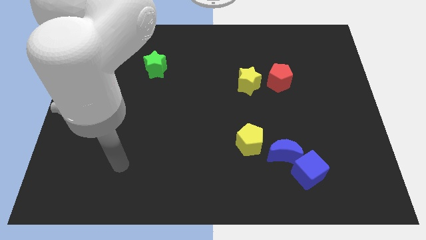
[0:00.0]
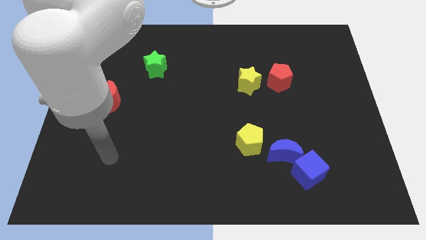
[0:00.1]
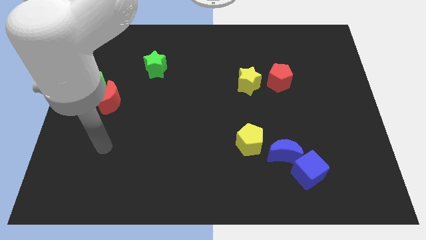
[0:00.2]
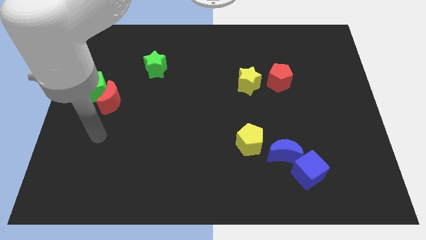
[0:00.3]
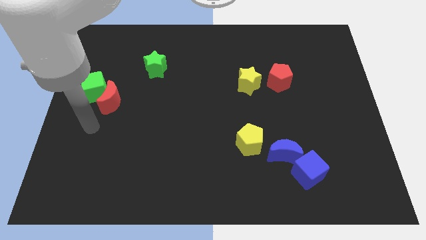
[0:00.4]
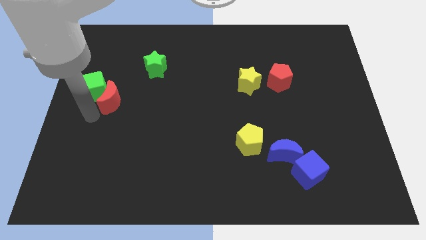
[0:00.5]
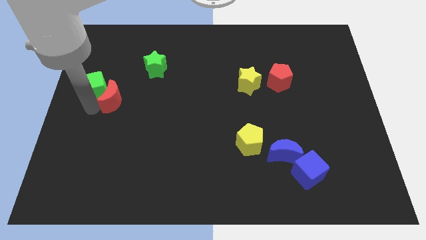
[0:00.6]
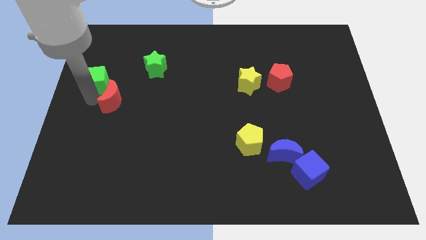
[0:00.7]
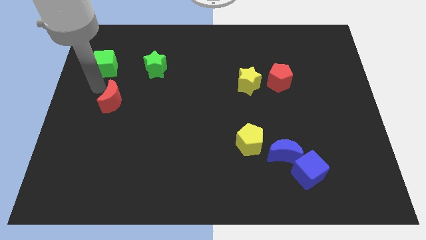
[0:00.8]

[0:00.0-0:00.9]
pull the red moon apart from the green cube

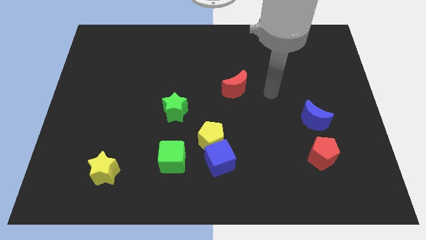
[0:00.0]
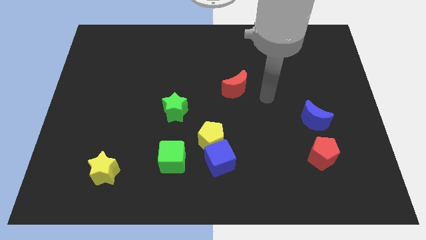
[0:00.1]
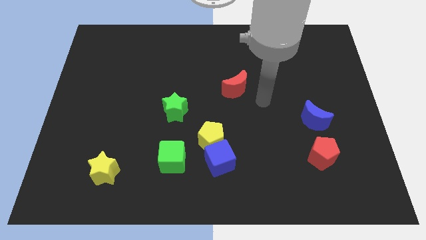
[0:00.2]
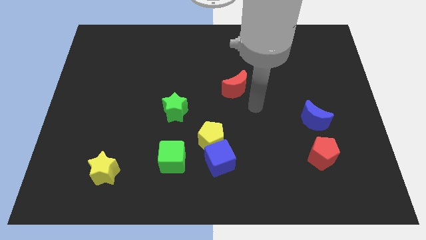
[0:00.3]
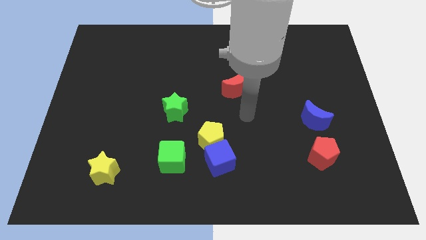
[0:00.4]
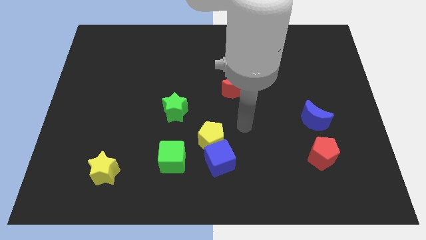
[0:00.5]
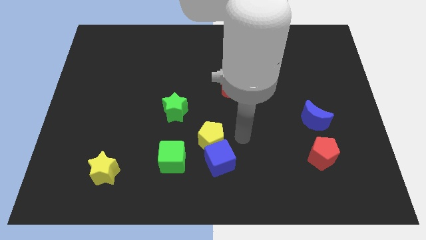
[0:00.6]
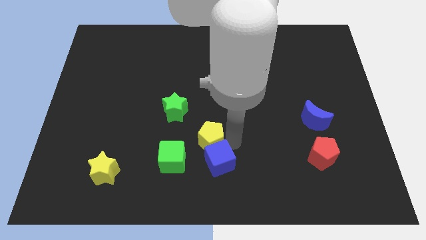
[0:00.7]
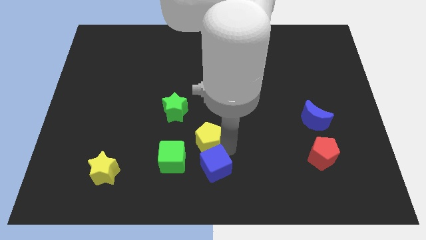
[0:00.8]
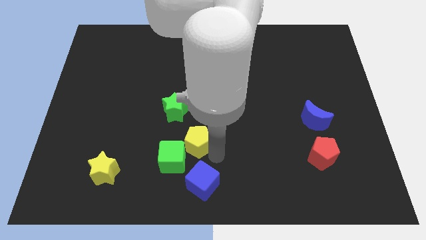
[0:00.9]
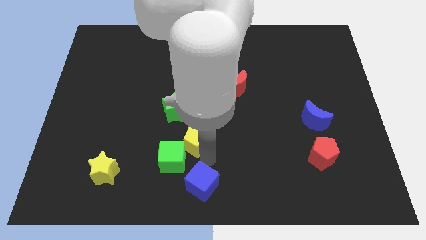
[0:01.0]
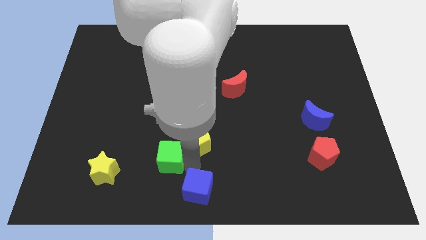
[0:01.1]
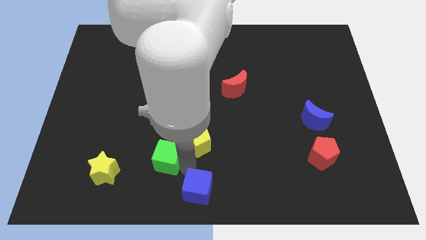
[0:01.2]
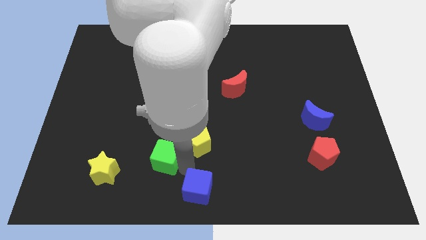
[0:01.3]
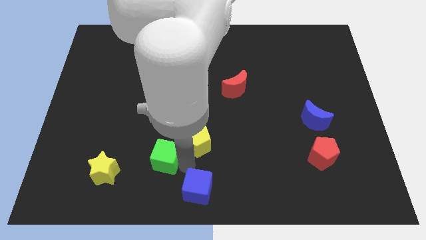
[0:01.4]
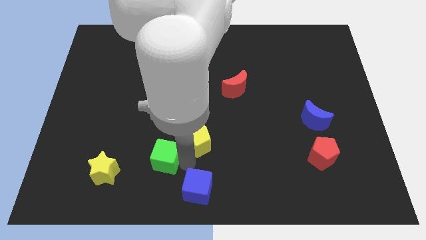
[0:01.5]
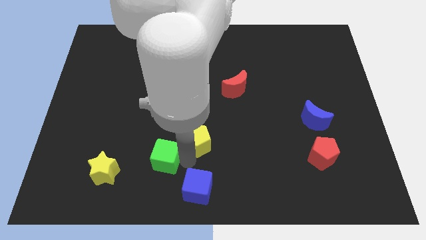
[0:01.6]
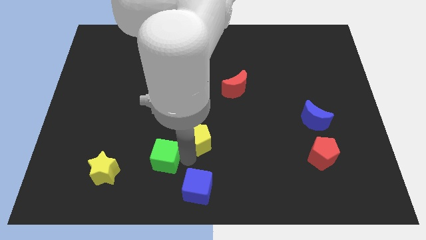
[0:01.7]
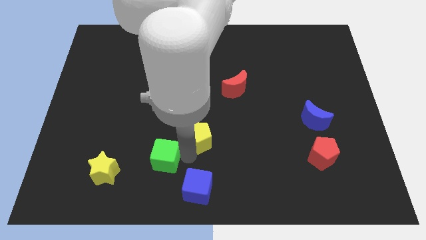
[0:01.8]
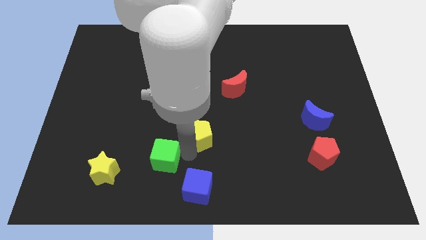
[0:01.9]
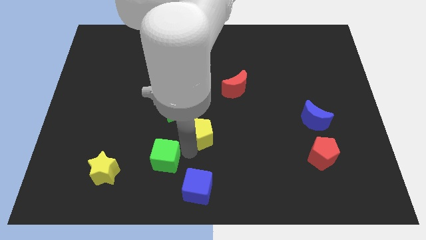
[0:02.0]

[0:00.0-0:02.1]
move the yellow pentagon away from the blue cube and green cube

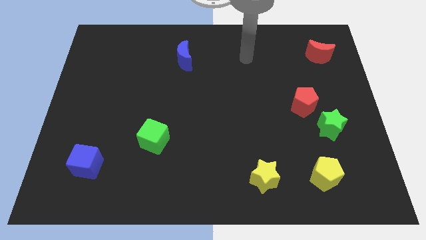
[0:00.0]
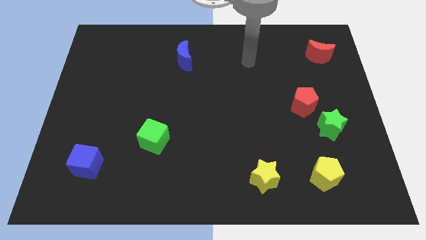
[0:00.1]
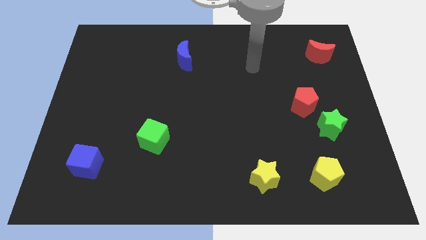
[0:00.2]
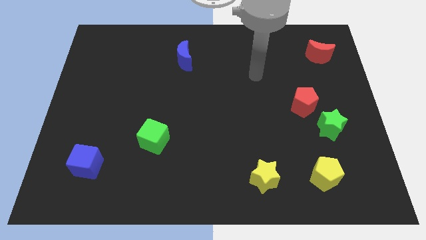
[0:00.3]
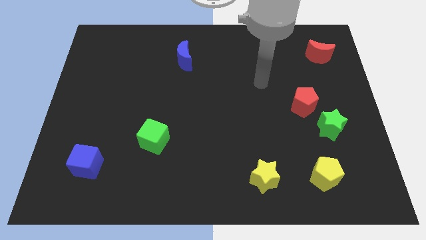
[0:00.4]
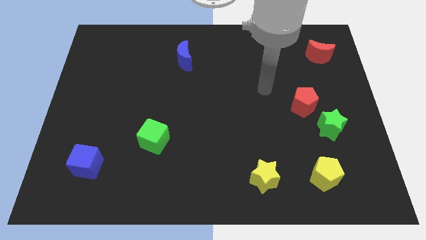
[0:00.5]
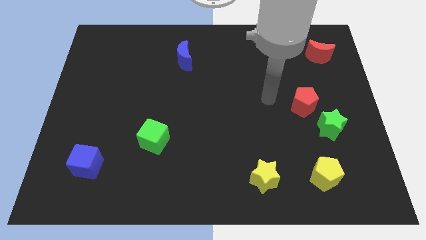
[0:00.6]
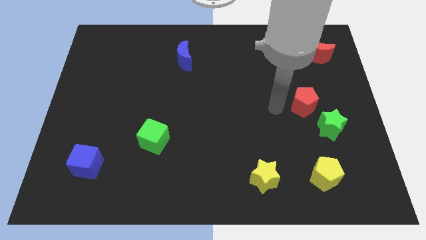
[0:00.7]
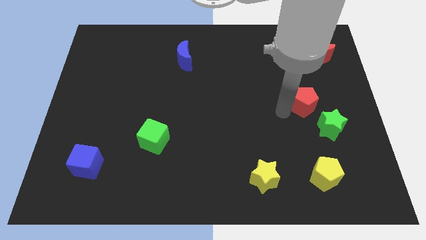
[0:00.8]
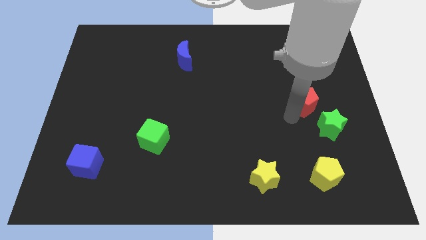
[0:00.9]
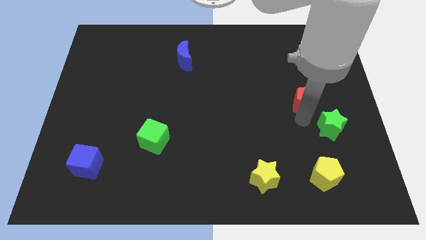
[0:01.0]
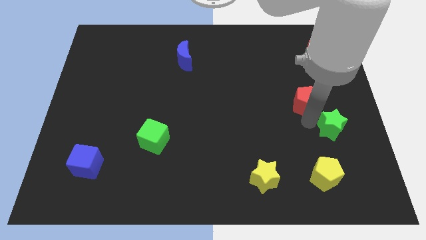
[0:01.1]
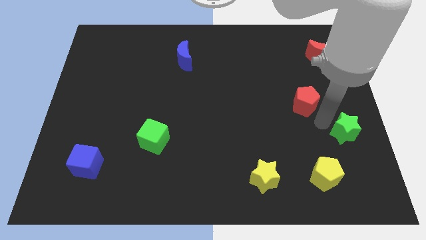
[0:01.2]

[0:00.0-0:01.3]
move the red pentagon away from the green star

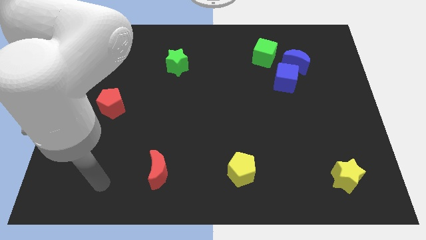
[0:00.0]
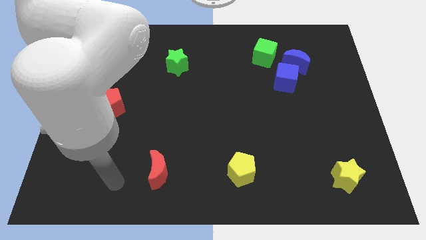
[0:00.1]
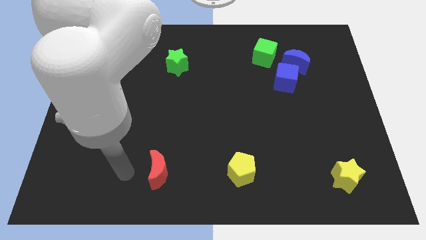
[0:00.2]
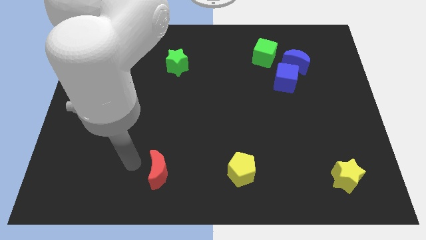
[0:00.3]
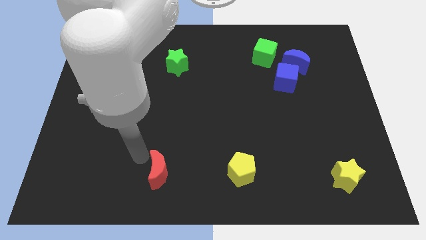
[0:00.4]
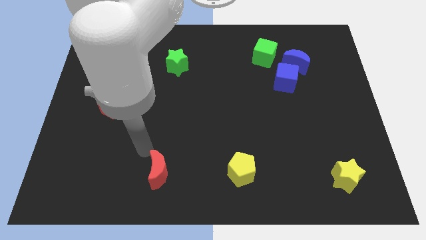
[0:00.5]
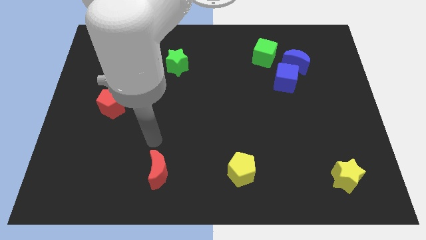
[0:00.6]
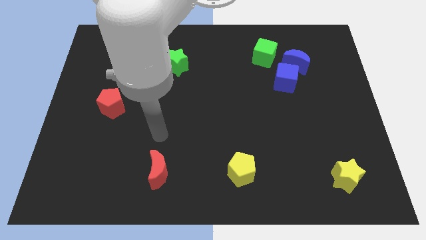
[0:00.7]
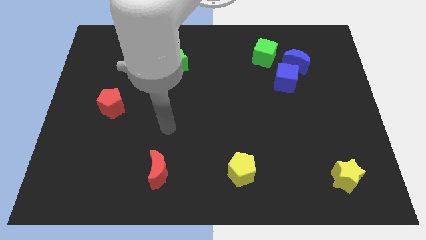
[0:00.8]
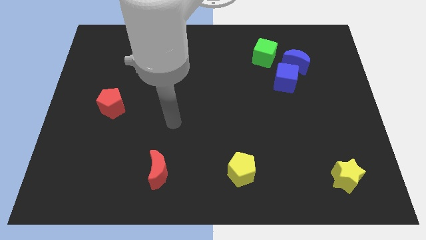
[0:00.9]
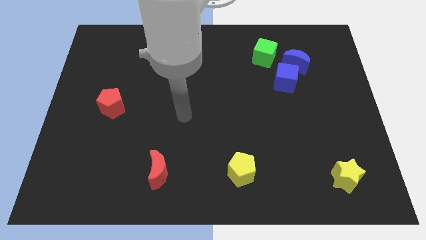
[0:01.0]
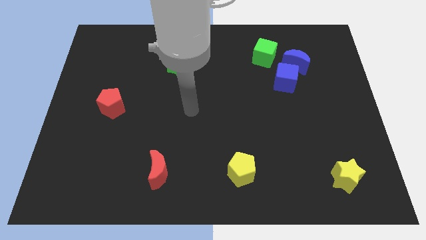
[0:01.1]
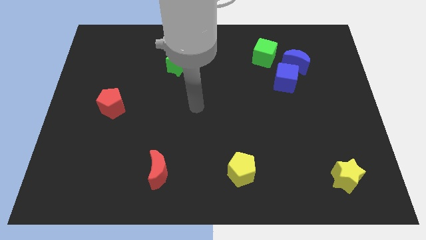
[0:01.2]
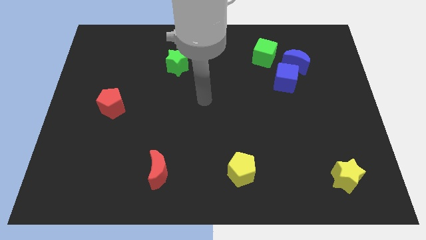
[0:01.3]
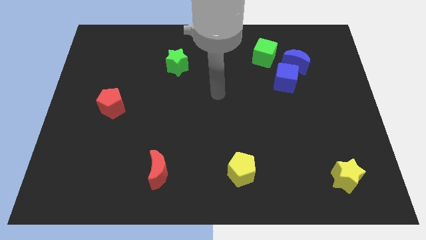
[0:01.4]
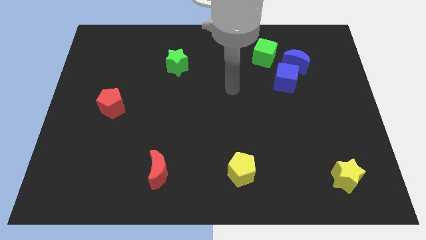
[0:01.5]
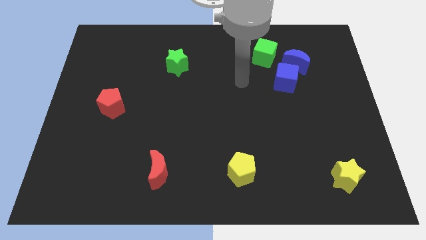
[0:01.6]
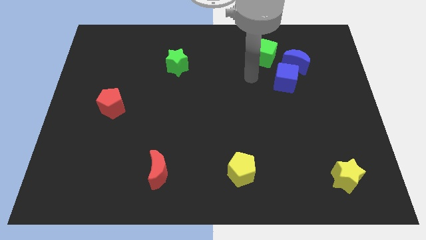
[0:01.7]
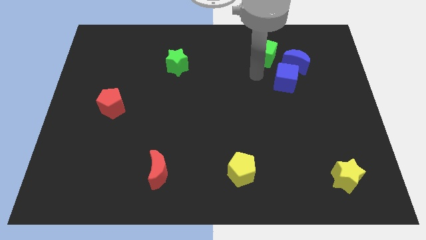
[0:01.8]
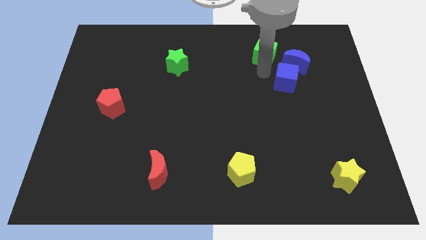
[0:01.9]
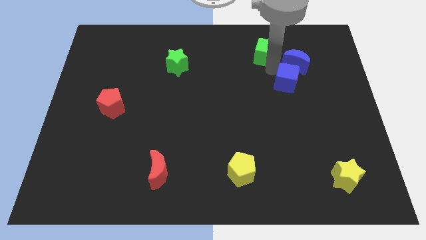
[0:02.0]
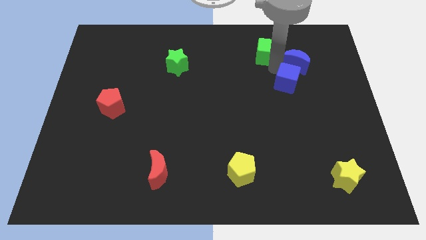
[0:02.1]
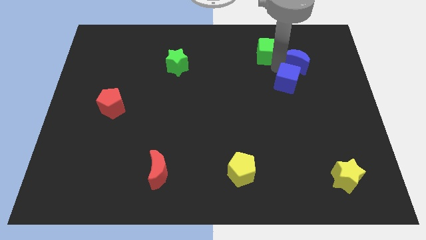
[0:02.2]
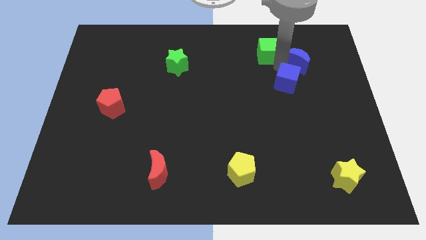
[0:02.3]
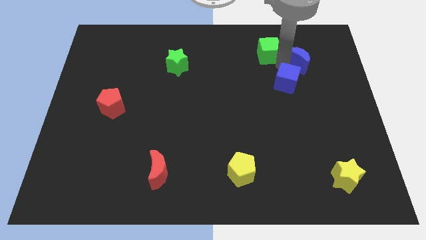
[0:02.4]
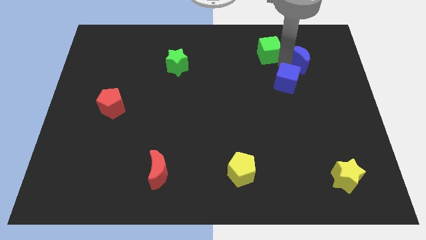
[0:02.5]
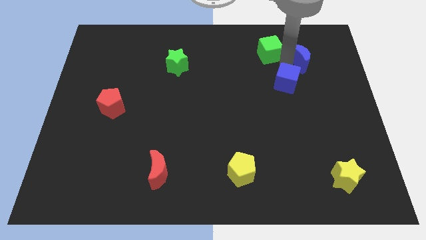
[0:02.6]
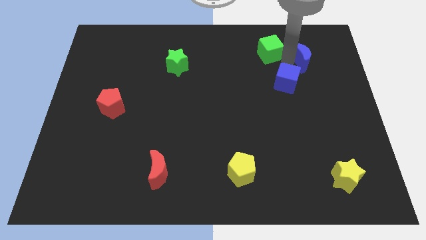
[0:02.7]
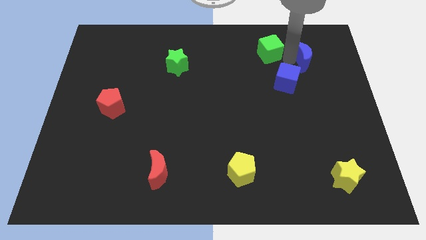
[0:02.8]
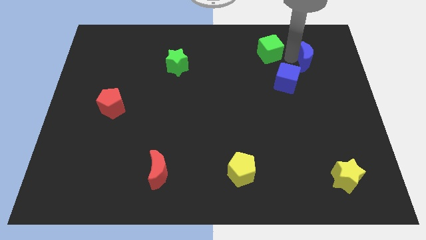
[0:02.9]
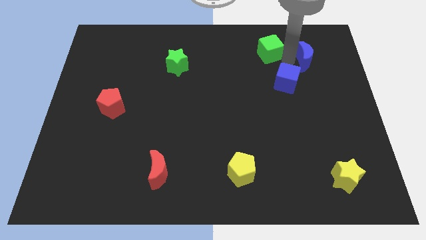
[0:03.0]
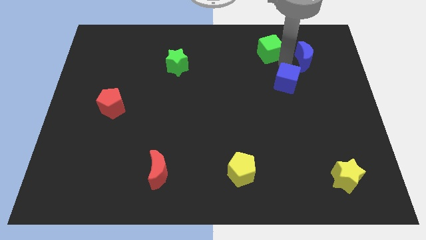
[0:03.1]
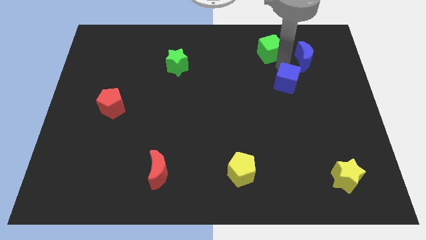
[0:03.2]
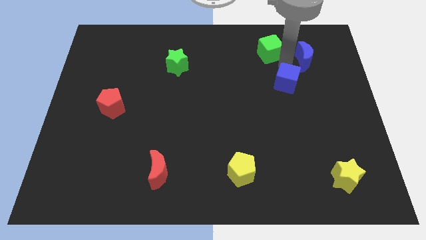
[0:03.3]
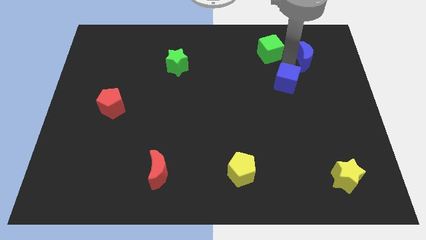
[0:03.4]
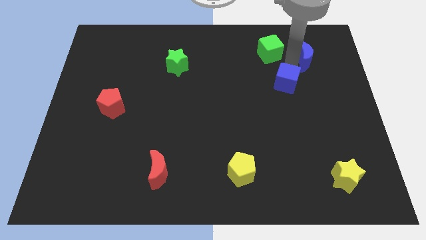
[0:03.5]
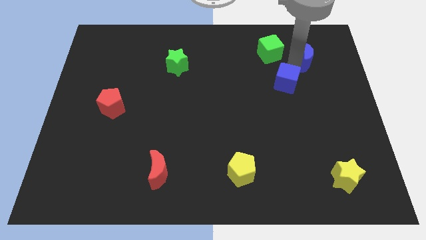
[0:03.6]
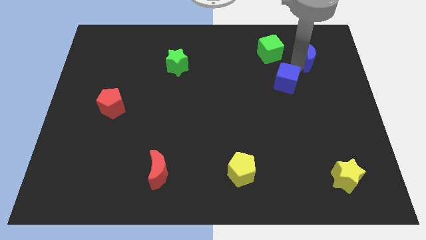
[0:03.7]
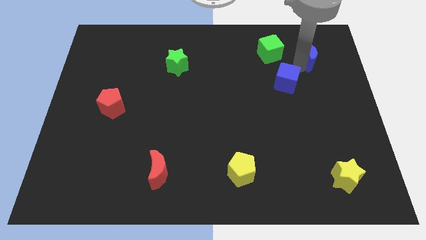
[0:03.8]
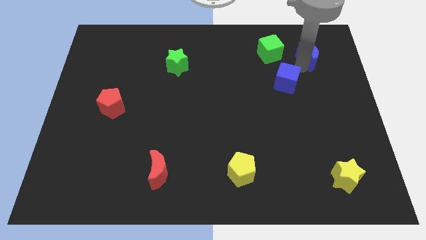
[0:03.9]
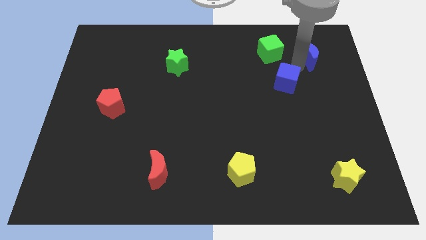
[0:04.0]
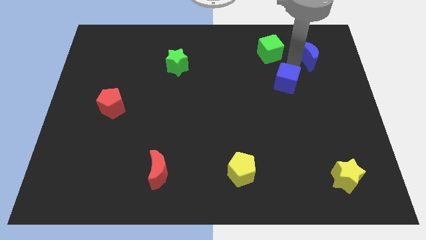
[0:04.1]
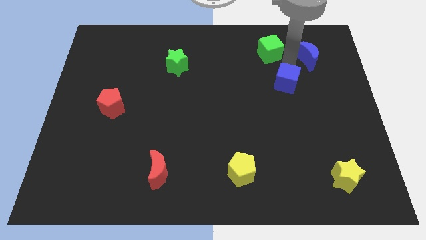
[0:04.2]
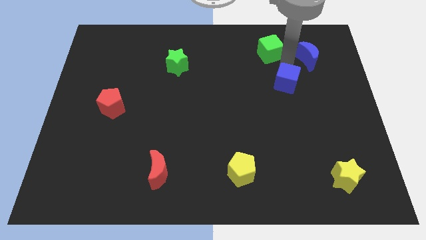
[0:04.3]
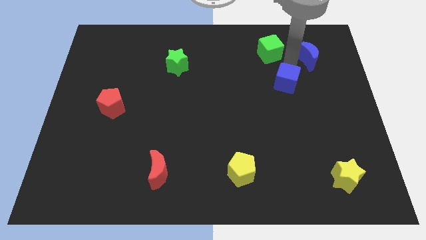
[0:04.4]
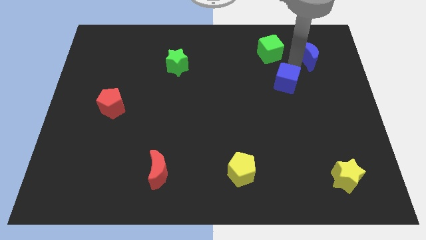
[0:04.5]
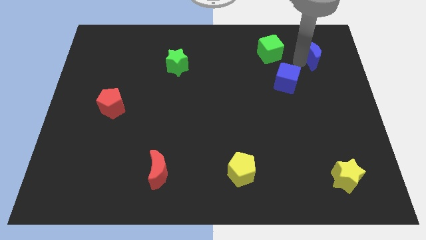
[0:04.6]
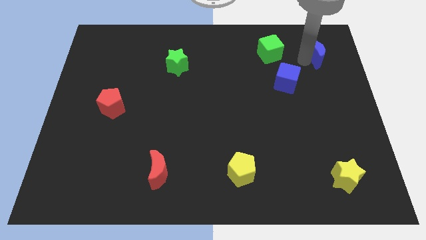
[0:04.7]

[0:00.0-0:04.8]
separate the blue moon from the blue cube and green cube

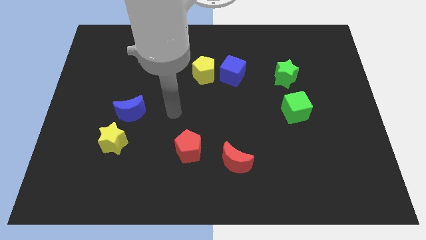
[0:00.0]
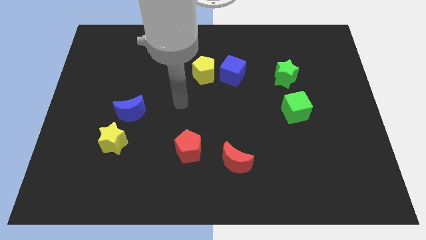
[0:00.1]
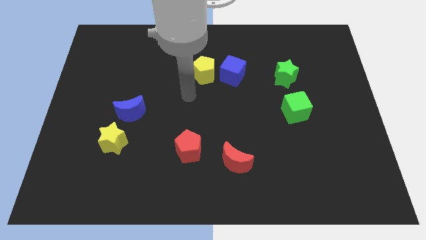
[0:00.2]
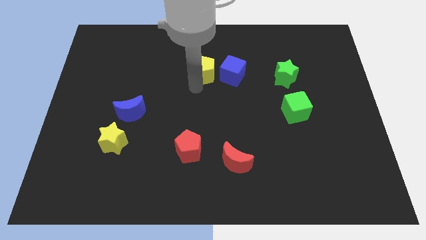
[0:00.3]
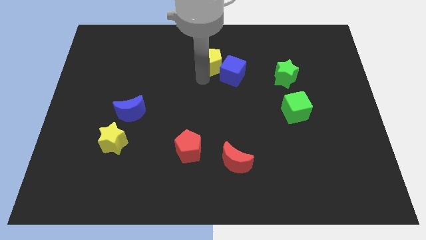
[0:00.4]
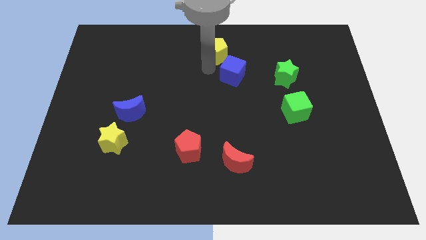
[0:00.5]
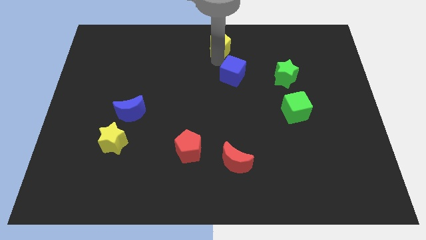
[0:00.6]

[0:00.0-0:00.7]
move the blue cube away from the yellow pentagon
